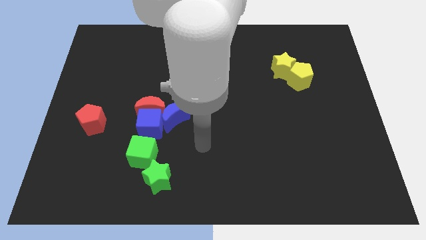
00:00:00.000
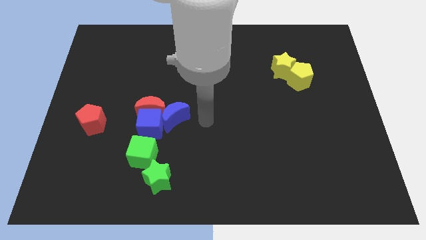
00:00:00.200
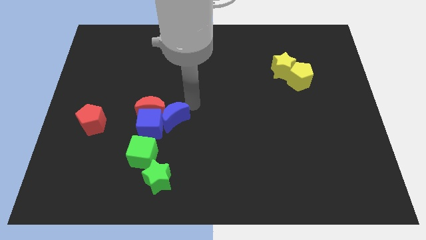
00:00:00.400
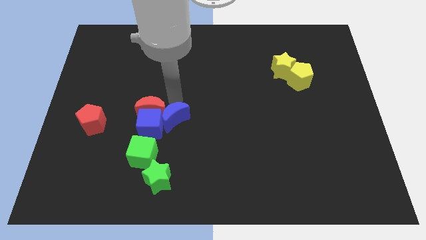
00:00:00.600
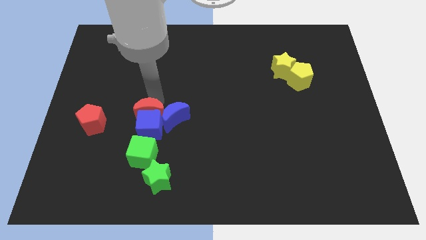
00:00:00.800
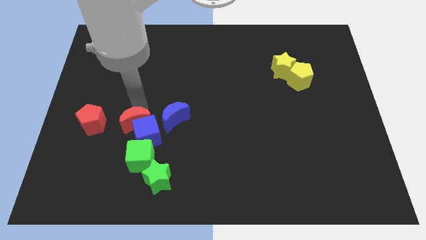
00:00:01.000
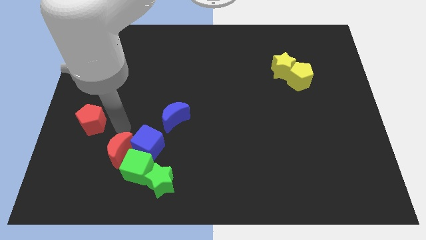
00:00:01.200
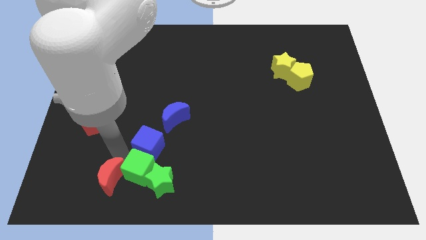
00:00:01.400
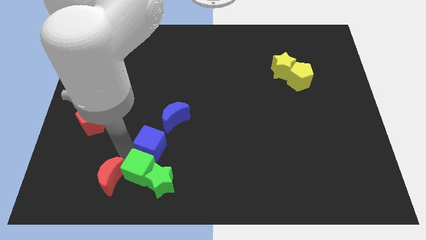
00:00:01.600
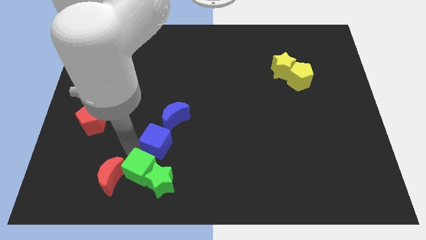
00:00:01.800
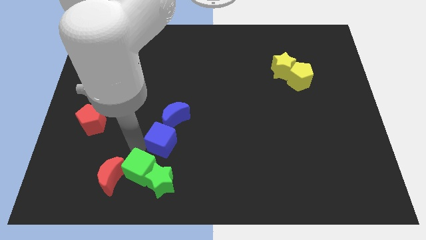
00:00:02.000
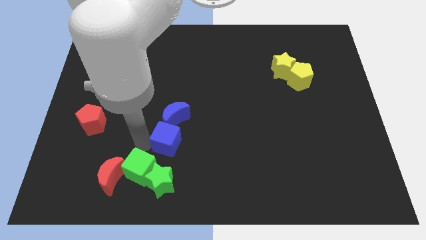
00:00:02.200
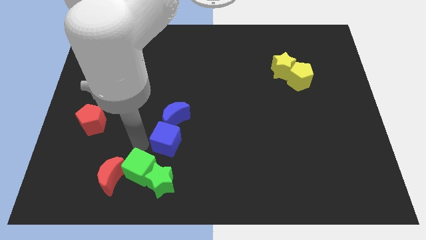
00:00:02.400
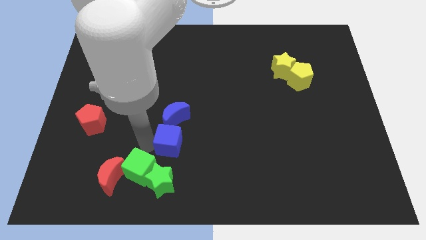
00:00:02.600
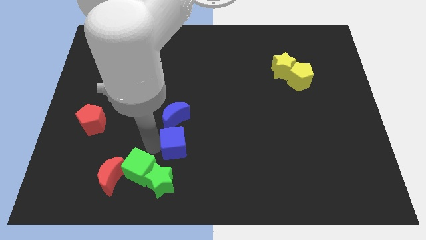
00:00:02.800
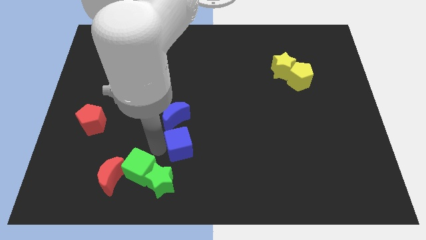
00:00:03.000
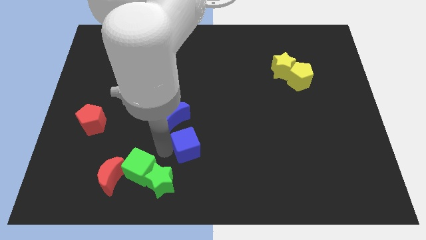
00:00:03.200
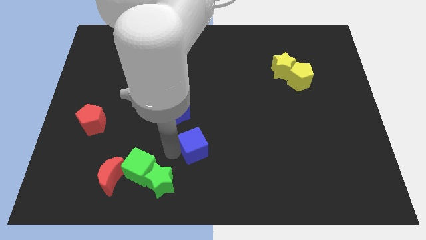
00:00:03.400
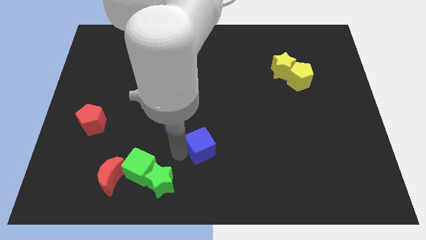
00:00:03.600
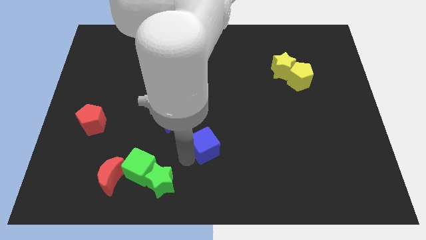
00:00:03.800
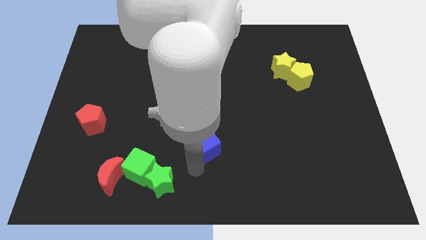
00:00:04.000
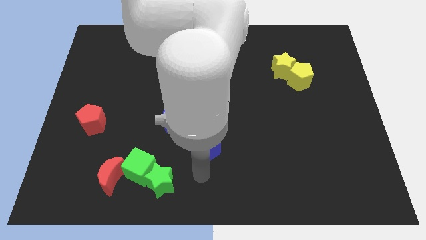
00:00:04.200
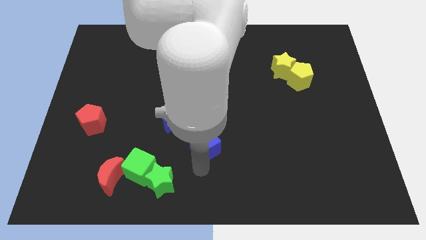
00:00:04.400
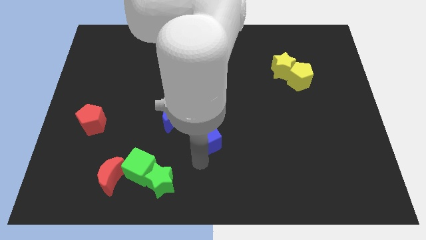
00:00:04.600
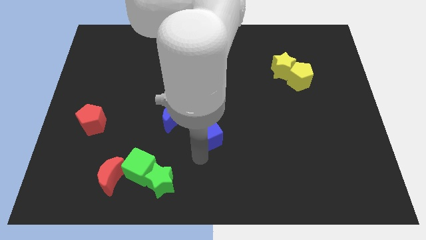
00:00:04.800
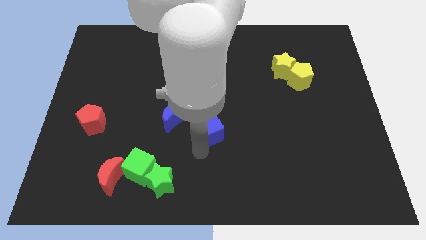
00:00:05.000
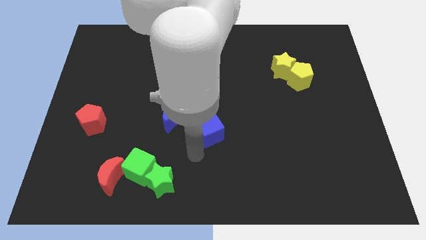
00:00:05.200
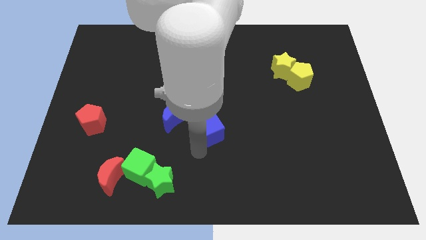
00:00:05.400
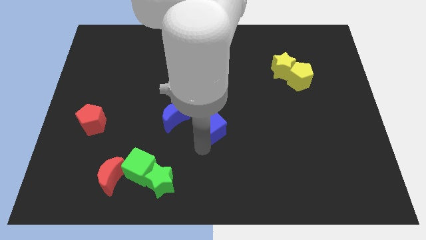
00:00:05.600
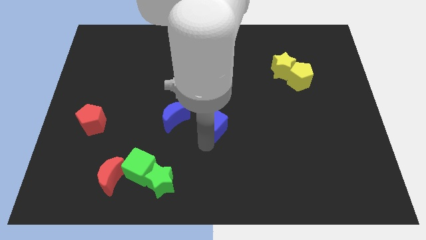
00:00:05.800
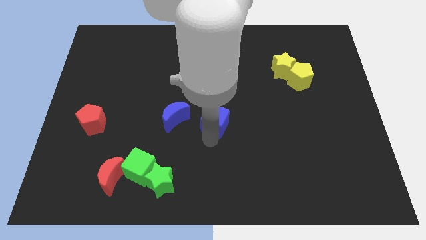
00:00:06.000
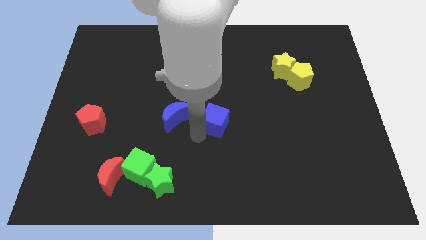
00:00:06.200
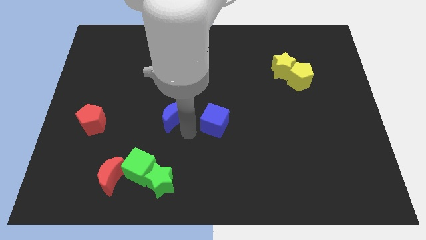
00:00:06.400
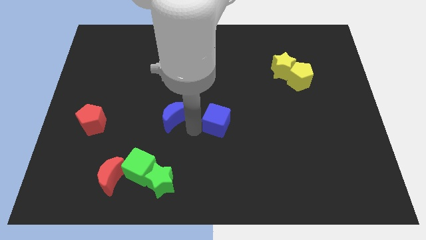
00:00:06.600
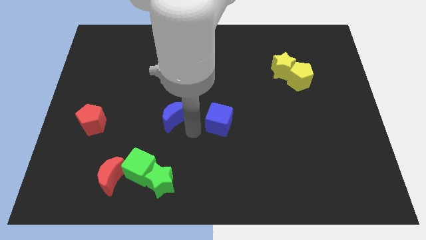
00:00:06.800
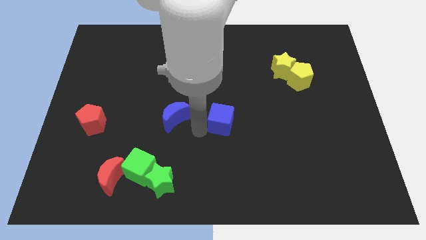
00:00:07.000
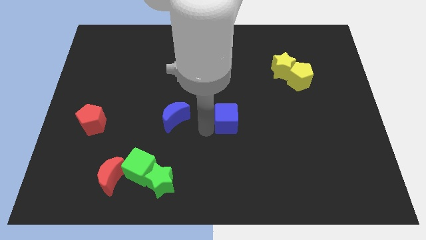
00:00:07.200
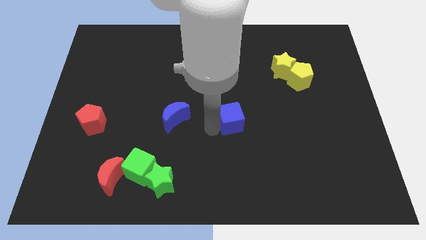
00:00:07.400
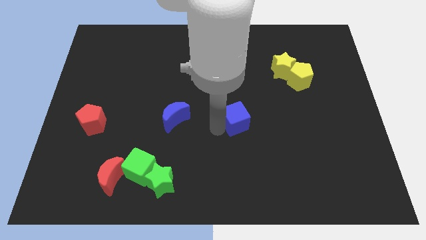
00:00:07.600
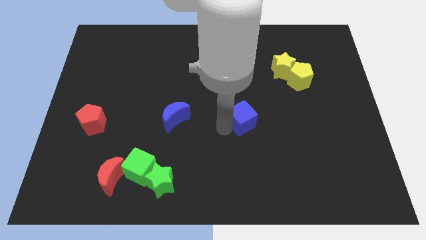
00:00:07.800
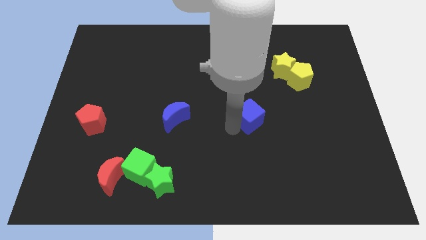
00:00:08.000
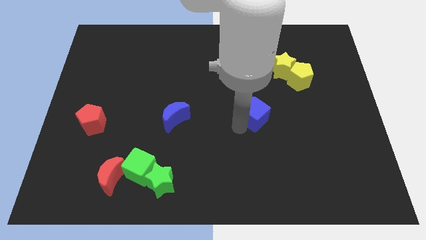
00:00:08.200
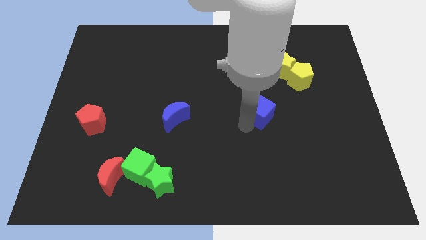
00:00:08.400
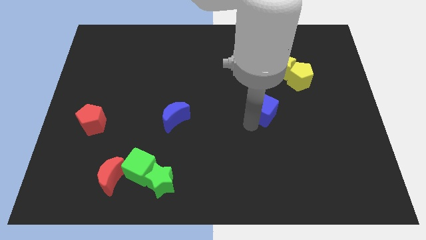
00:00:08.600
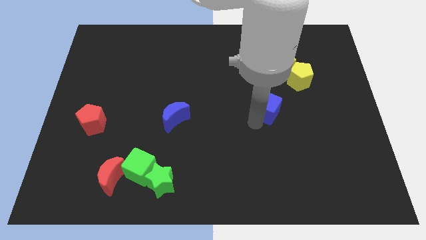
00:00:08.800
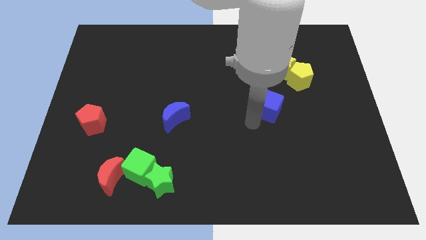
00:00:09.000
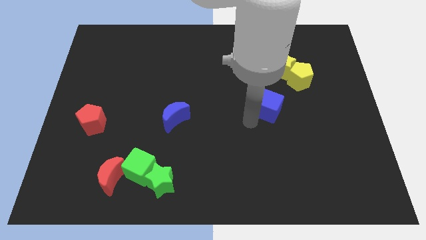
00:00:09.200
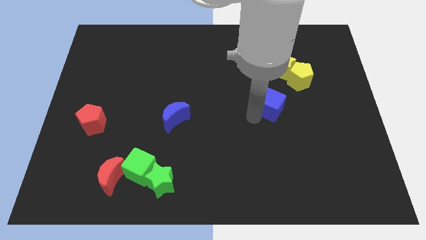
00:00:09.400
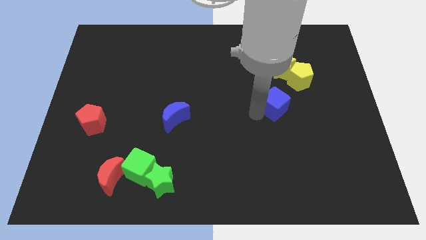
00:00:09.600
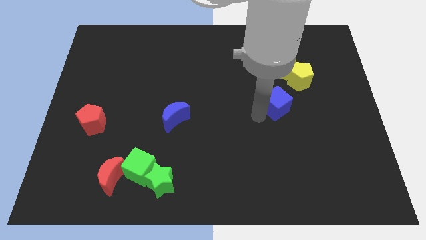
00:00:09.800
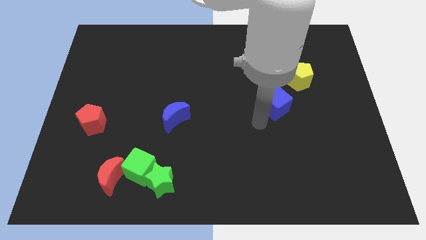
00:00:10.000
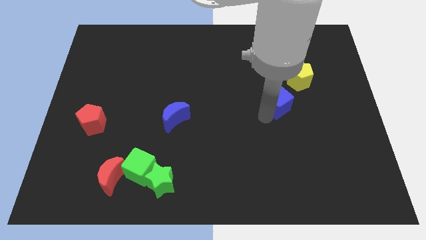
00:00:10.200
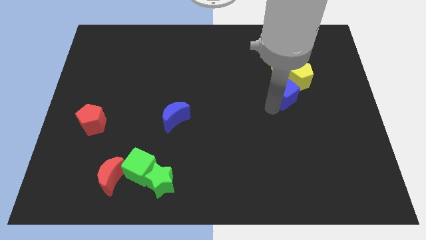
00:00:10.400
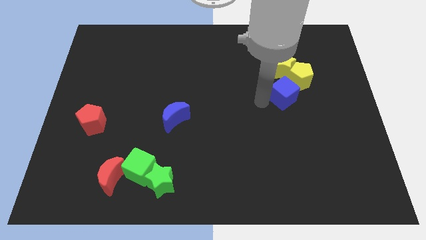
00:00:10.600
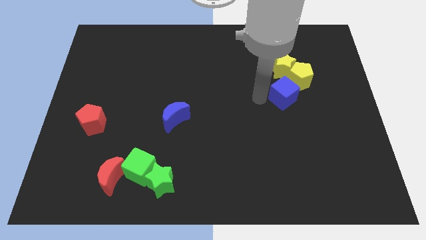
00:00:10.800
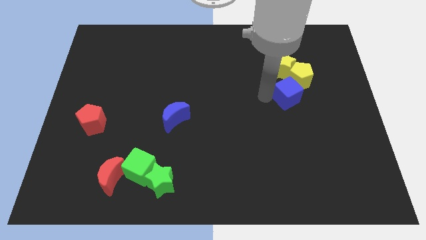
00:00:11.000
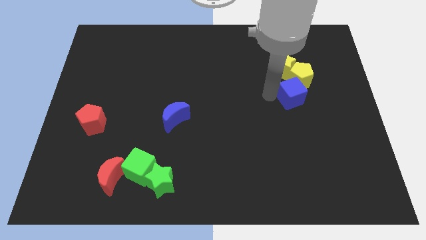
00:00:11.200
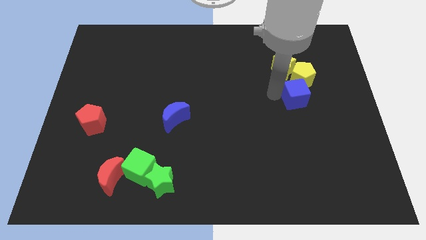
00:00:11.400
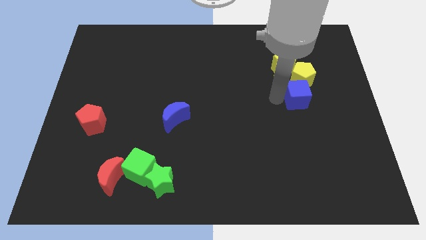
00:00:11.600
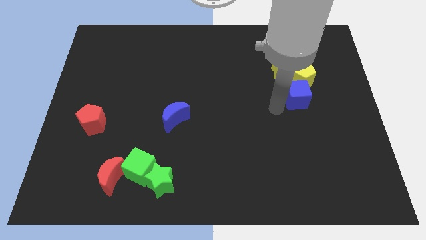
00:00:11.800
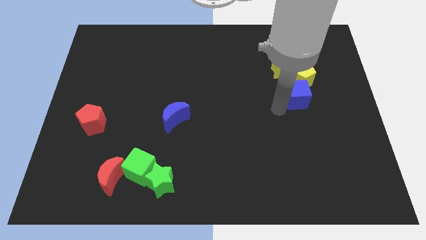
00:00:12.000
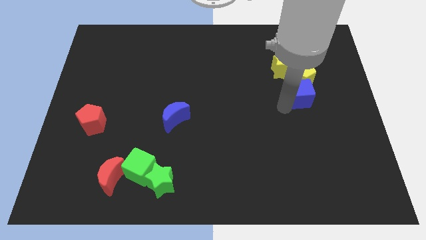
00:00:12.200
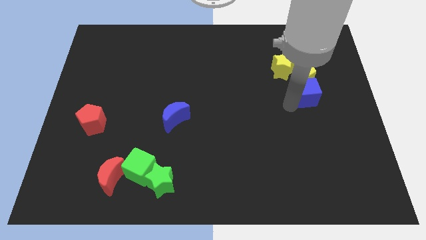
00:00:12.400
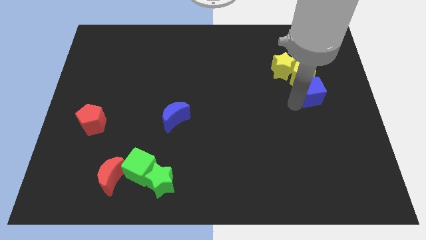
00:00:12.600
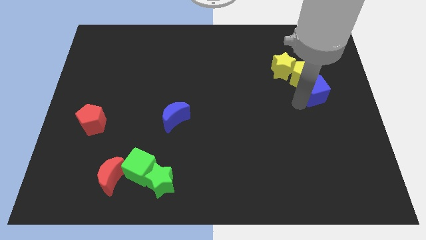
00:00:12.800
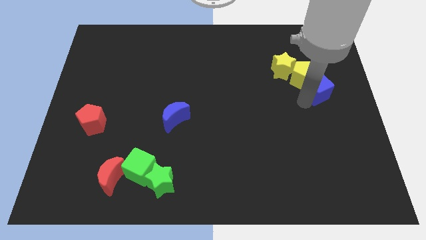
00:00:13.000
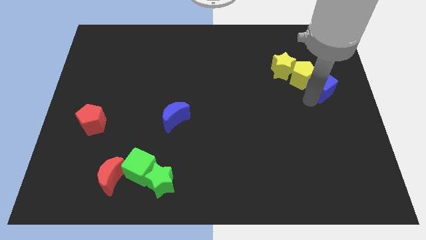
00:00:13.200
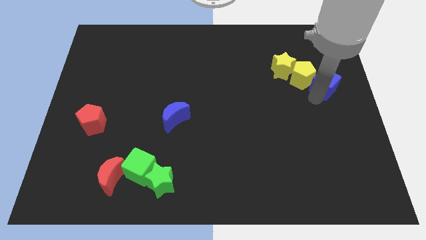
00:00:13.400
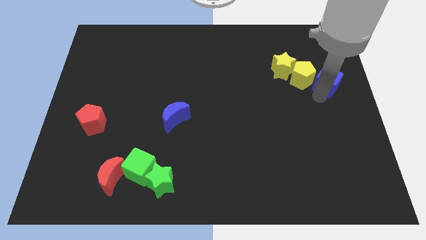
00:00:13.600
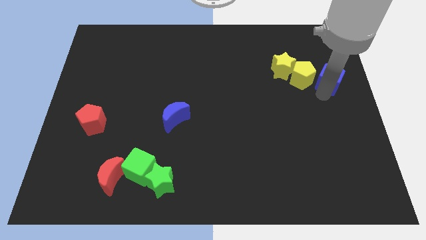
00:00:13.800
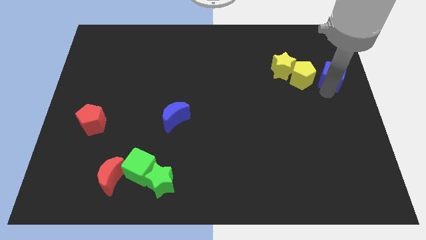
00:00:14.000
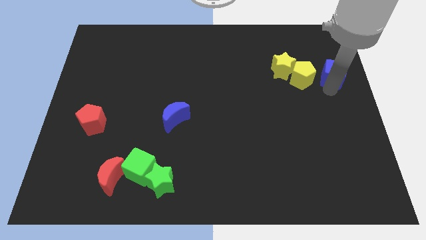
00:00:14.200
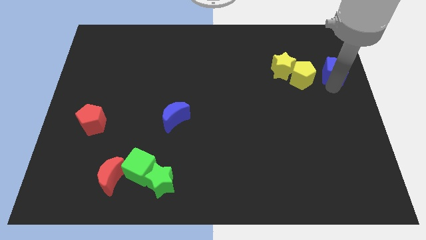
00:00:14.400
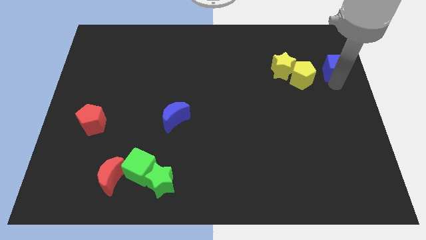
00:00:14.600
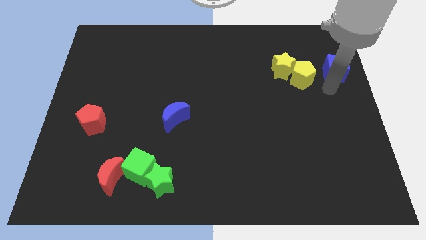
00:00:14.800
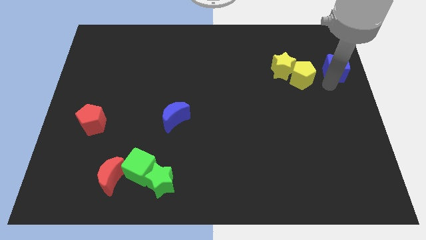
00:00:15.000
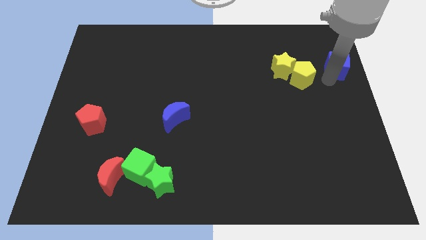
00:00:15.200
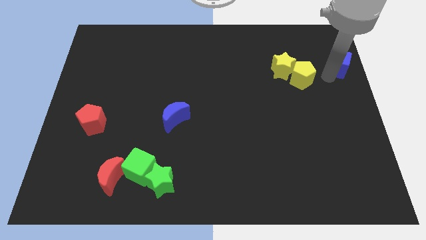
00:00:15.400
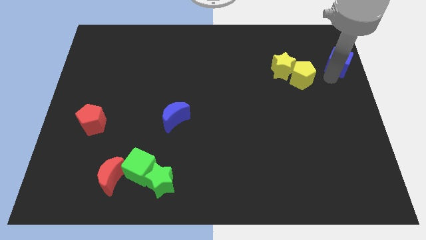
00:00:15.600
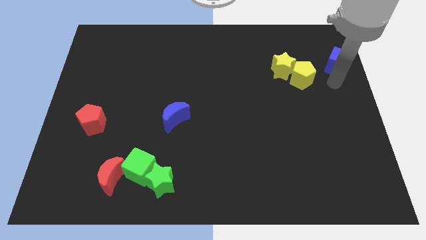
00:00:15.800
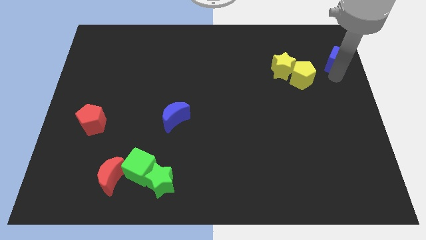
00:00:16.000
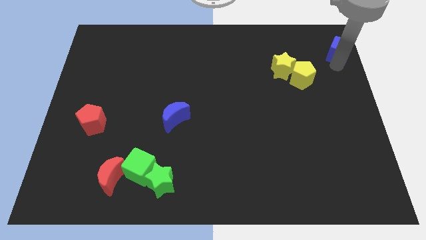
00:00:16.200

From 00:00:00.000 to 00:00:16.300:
slide the blue cube to the upper right corner
